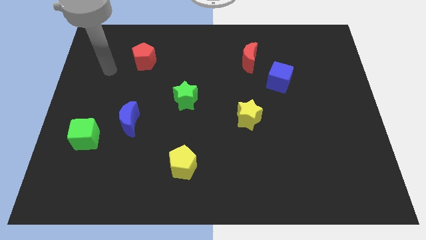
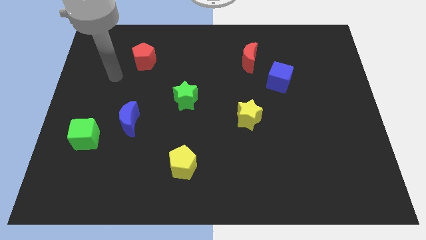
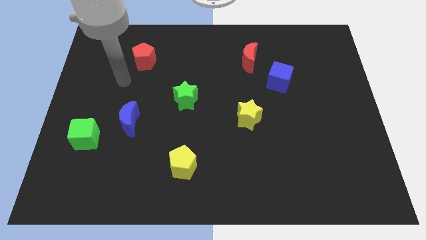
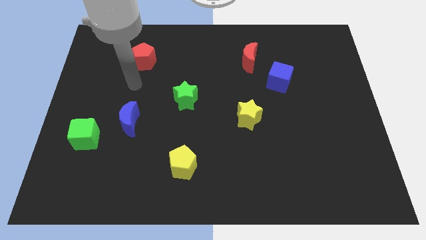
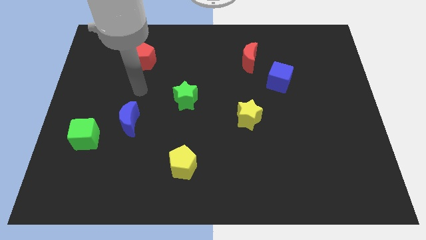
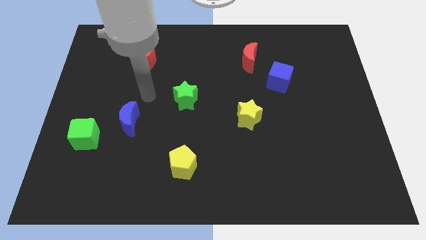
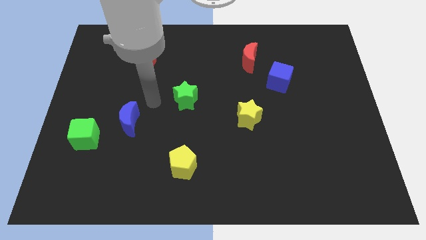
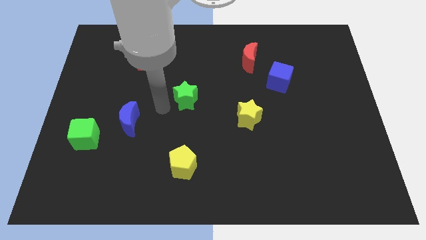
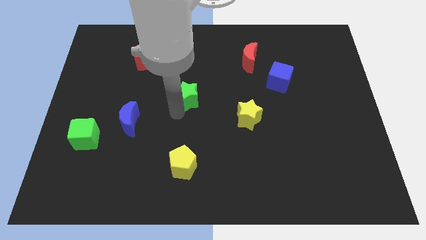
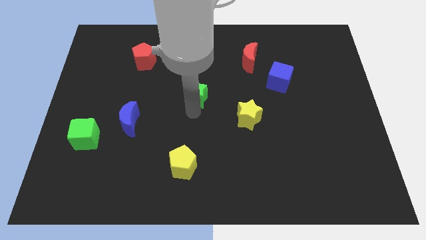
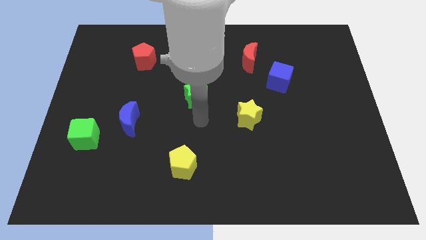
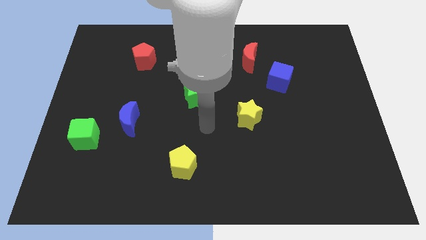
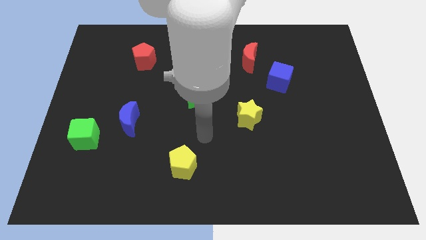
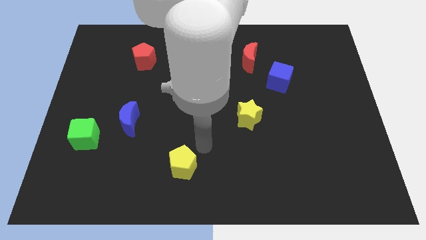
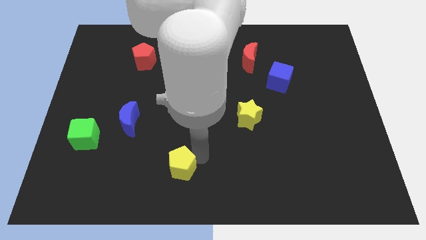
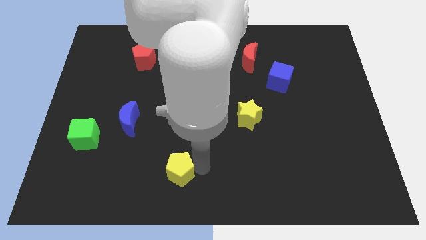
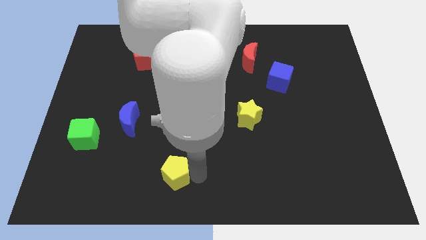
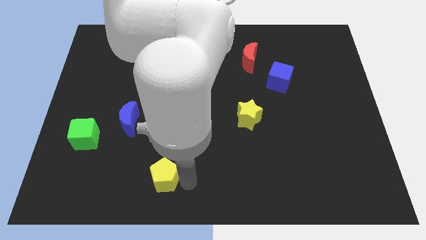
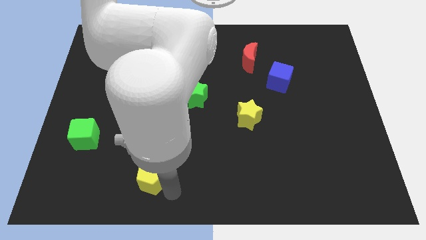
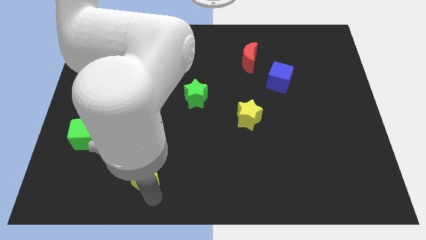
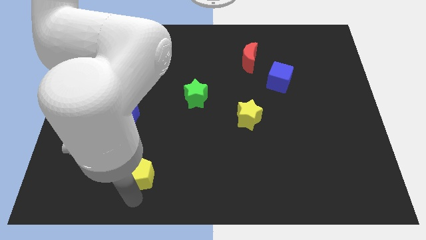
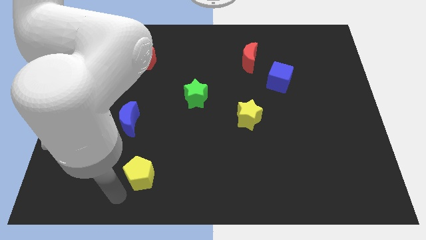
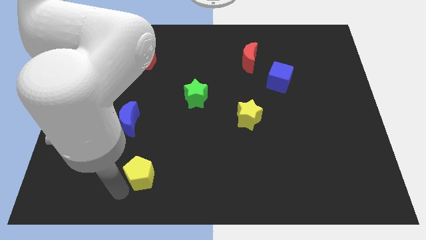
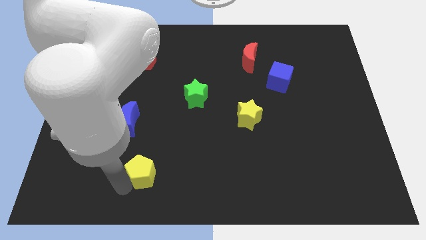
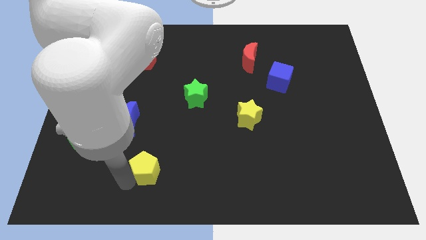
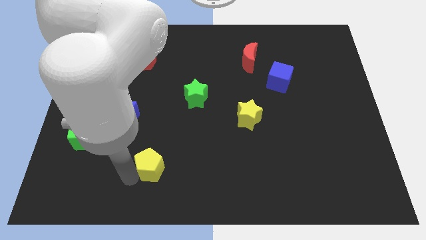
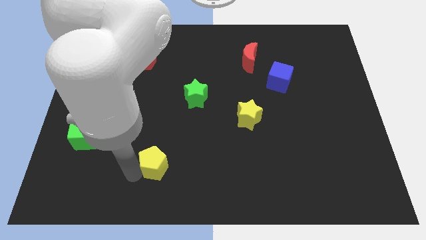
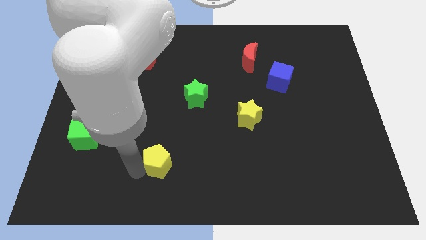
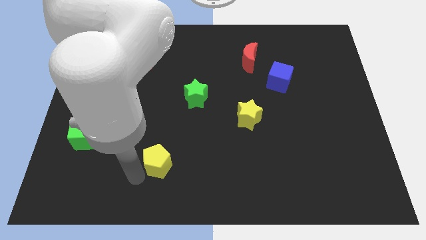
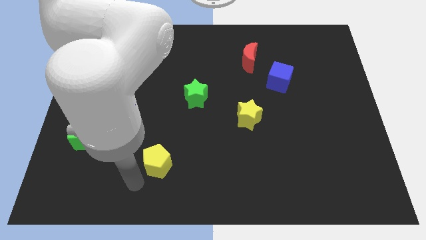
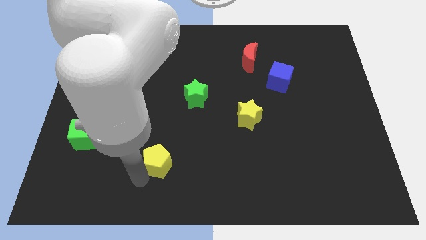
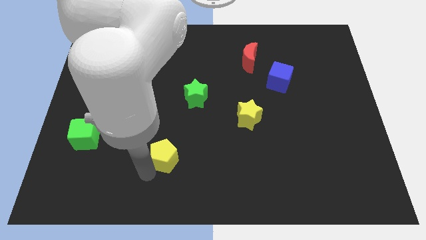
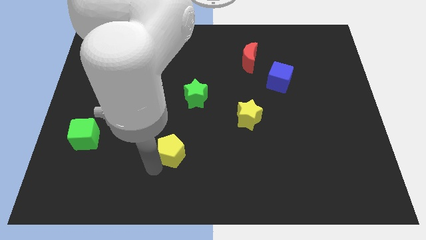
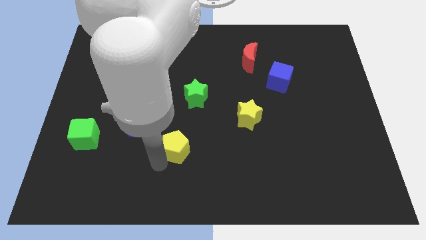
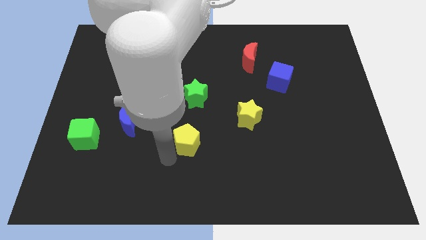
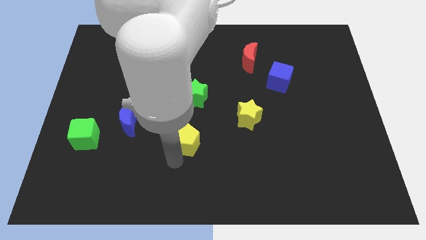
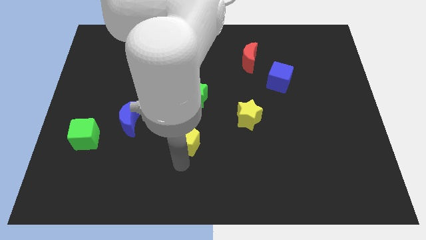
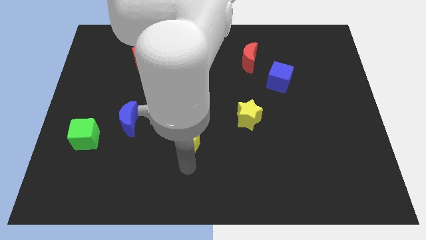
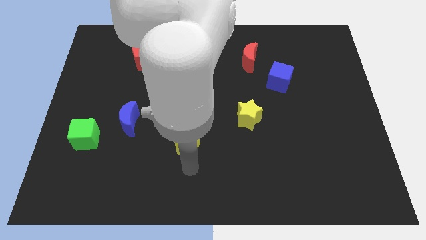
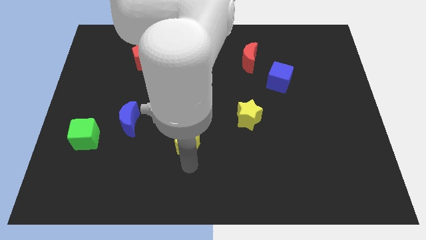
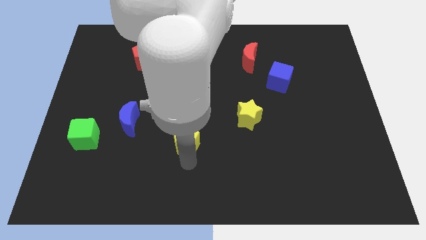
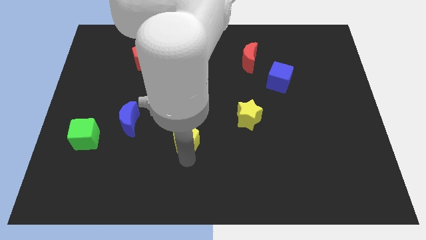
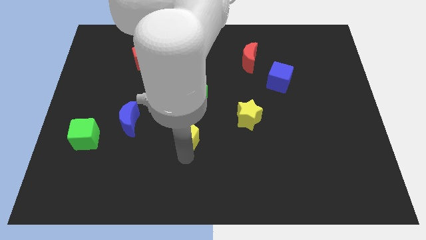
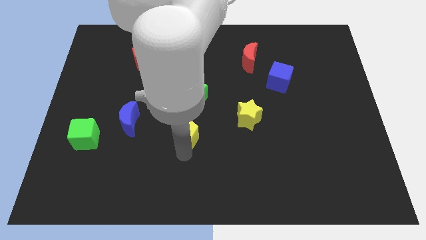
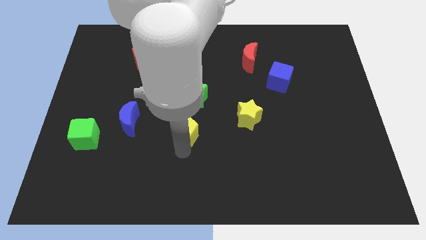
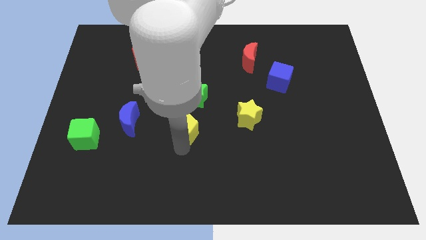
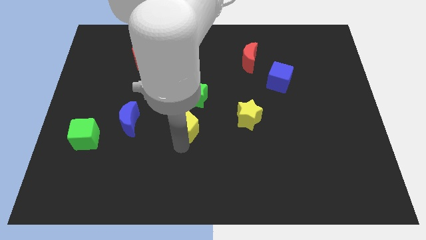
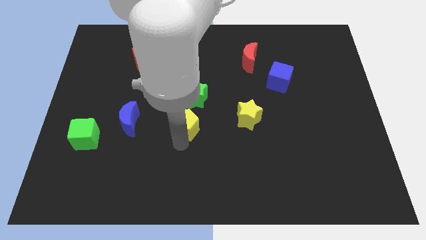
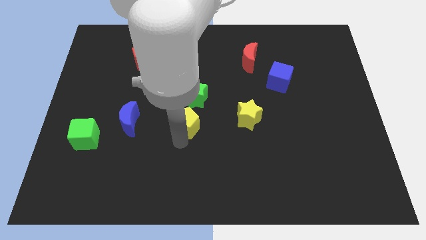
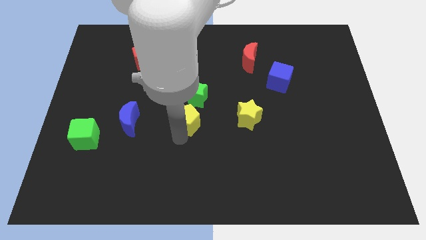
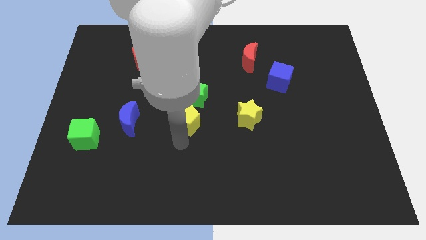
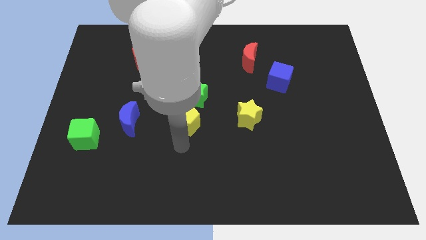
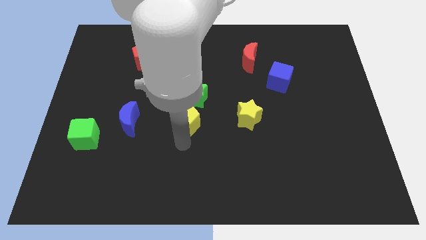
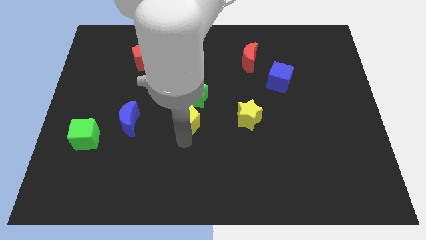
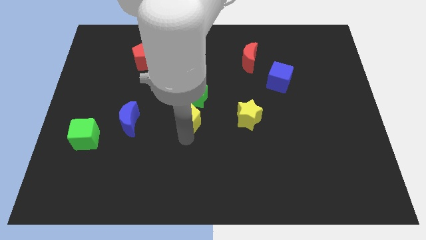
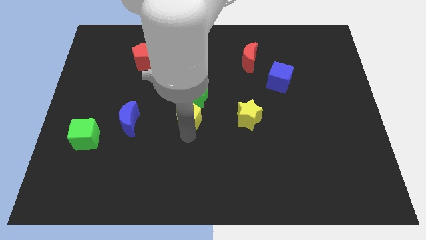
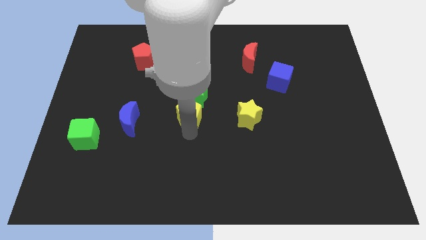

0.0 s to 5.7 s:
slide the yellow pentagon next to the green star

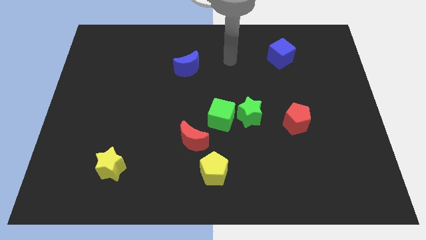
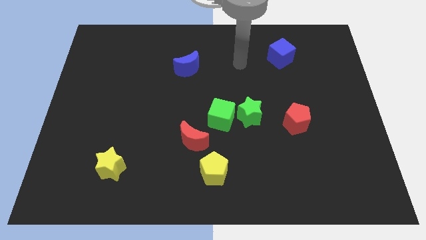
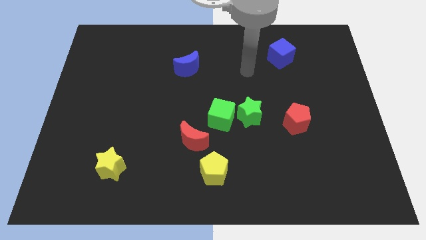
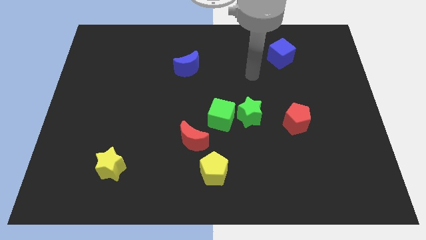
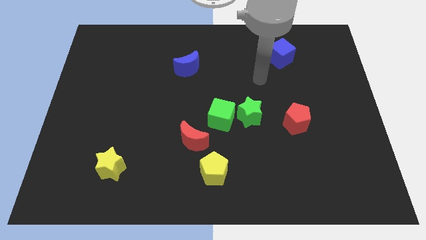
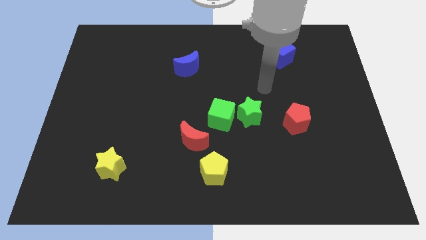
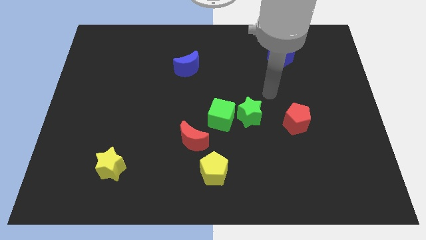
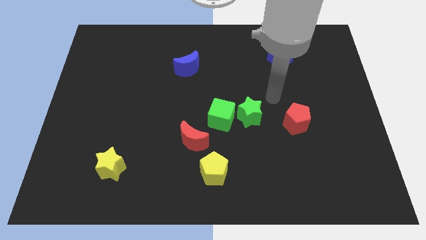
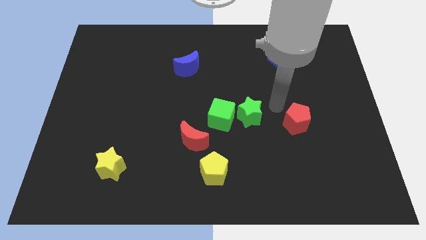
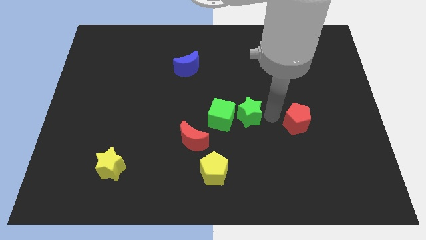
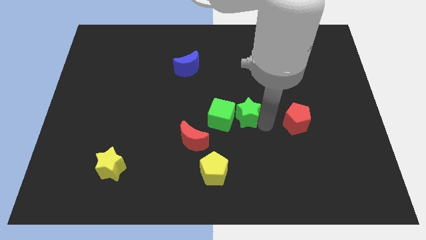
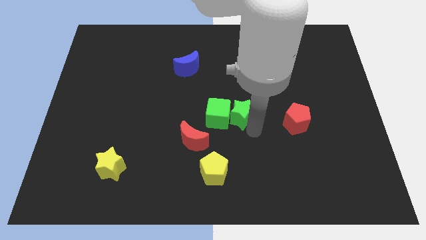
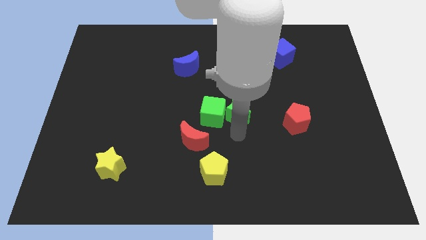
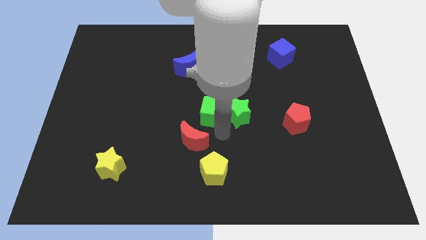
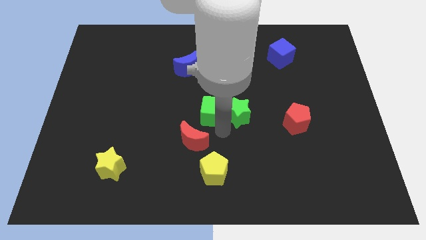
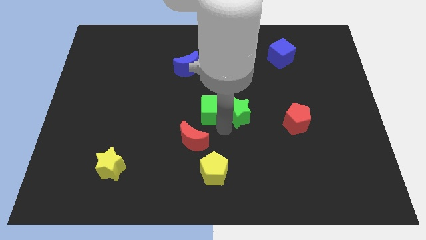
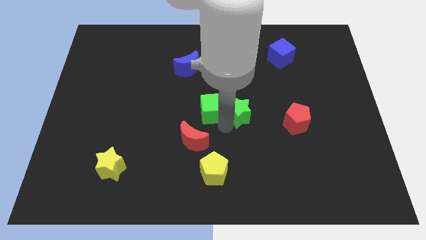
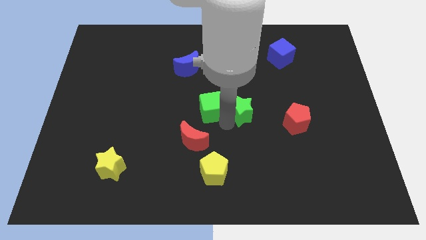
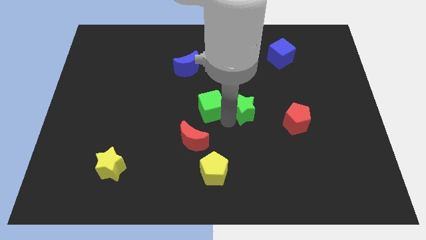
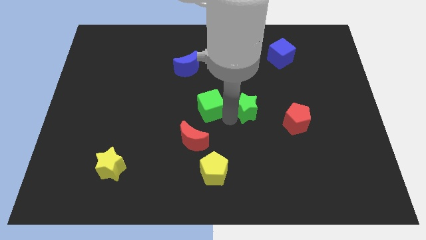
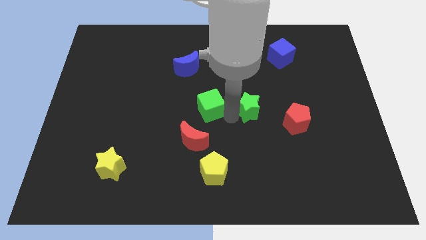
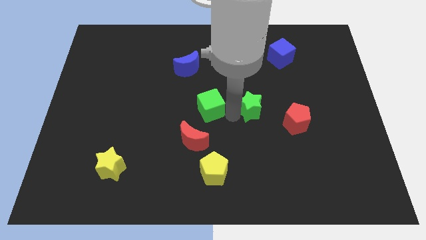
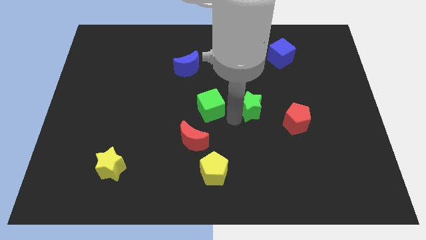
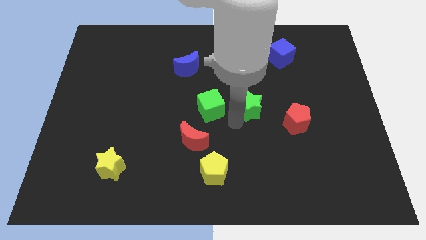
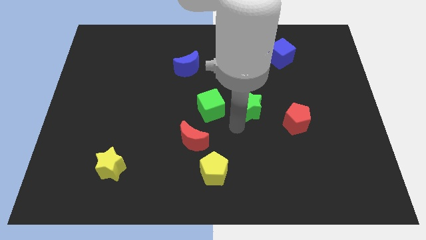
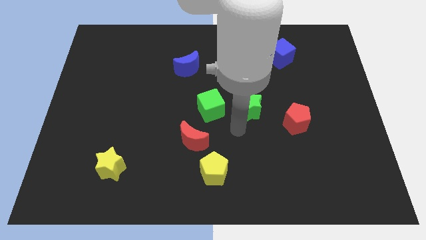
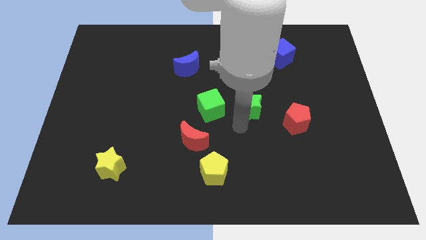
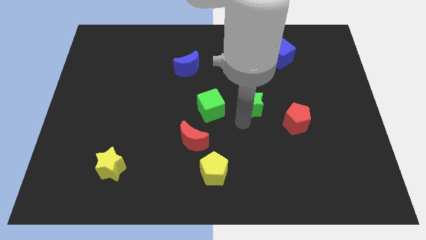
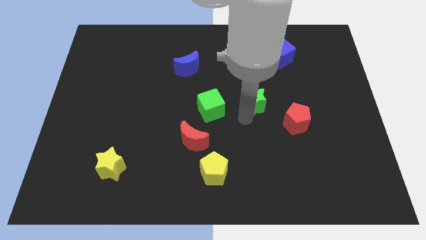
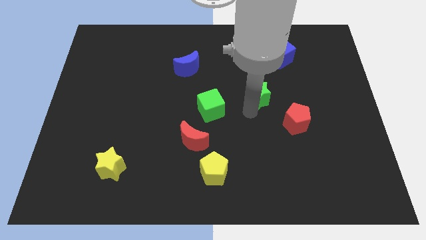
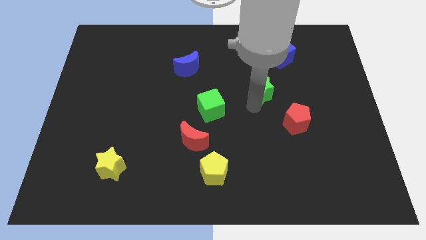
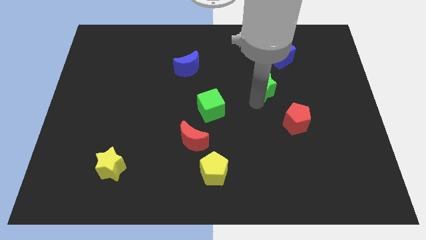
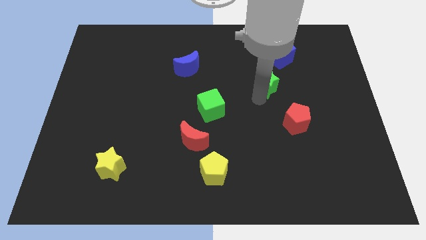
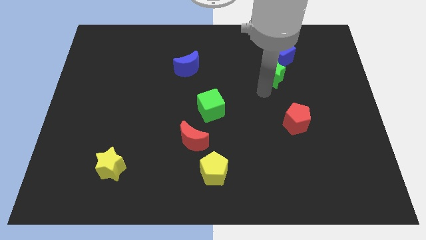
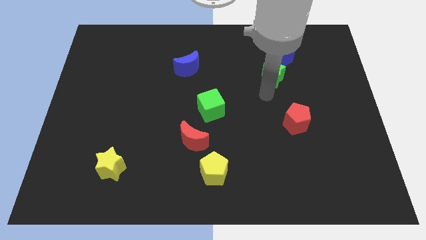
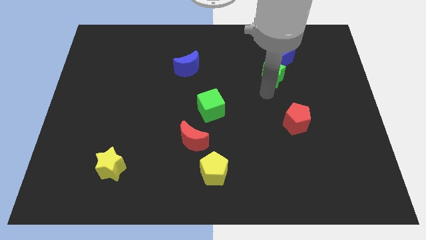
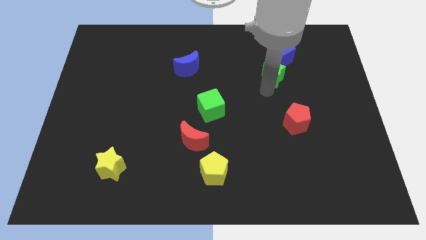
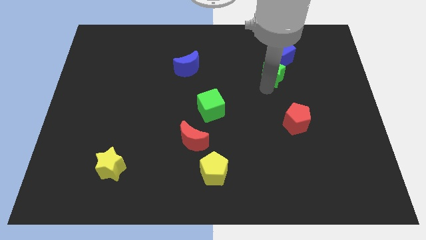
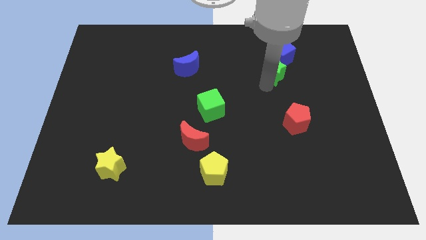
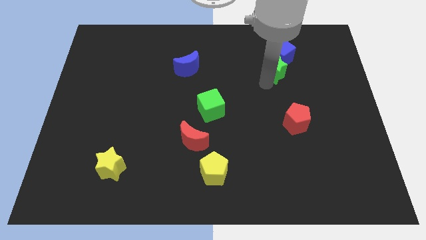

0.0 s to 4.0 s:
push the green star next to the blue cube
